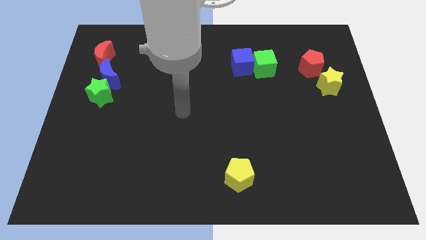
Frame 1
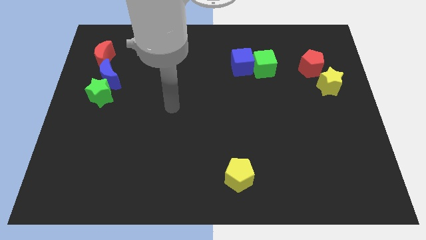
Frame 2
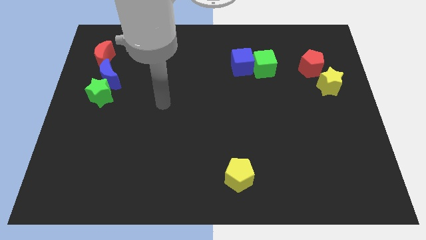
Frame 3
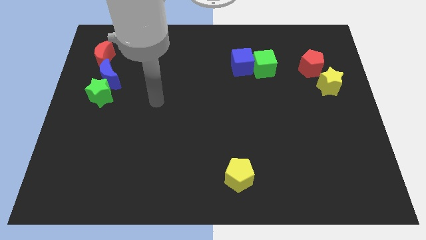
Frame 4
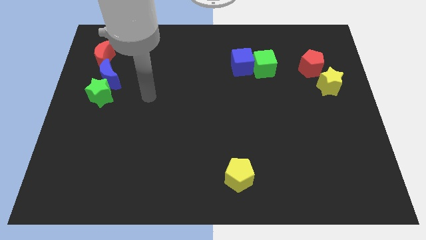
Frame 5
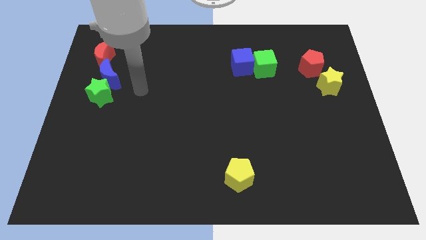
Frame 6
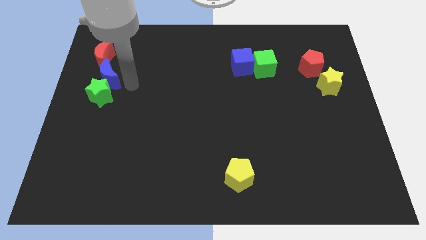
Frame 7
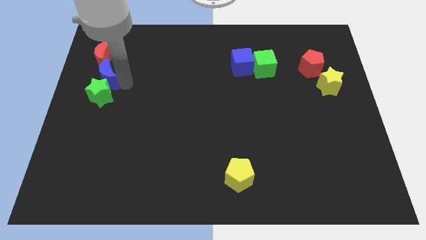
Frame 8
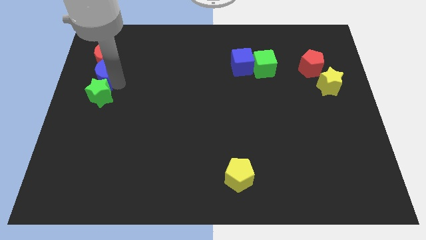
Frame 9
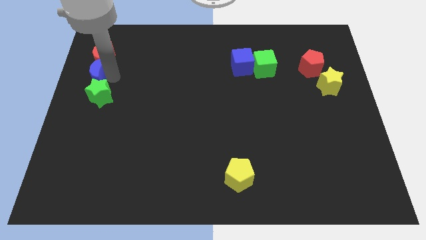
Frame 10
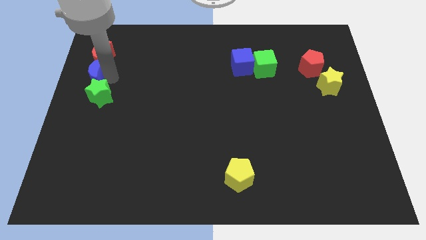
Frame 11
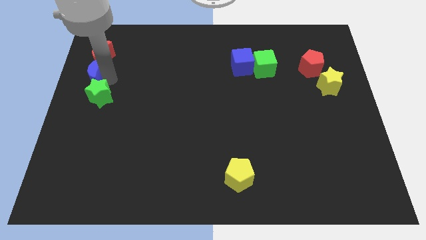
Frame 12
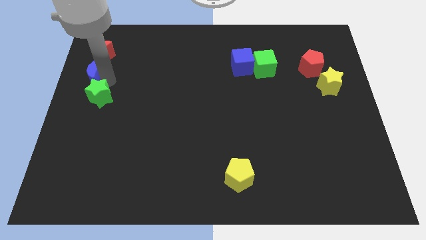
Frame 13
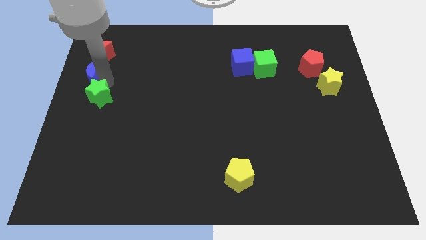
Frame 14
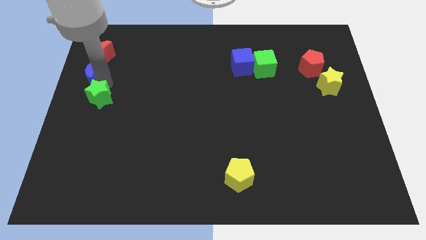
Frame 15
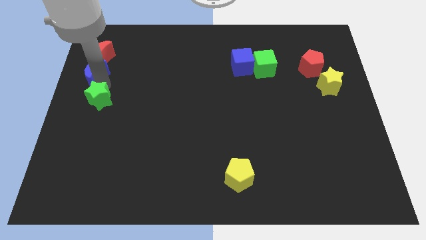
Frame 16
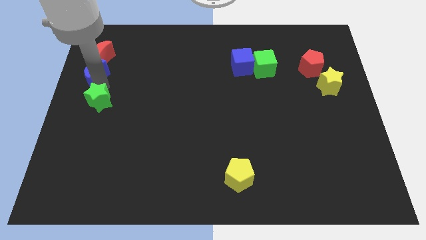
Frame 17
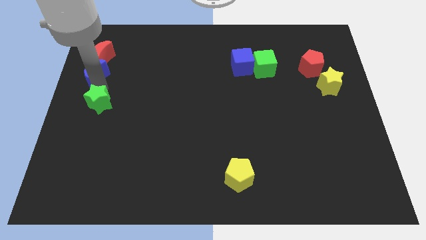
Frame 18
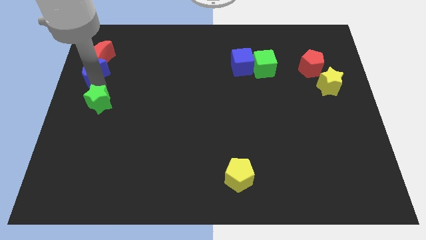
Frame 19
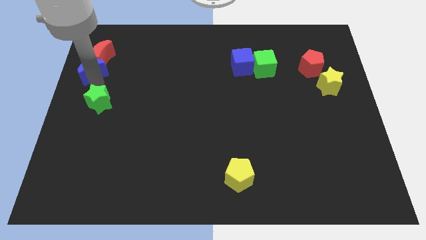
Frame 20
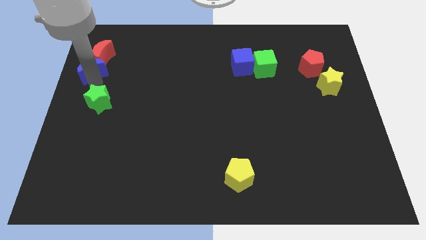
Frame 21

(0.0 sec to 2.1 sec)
pull the green star apart from the blue moon

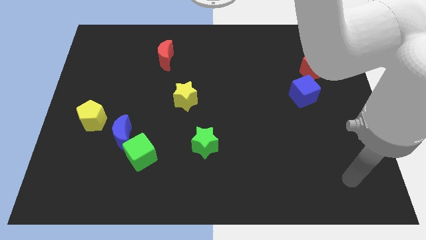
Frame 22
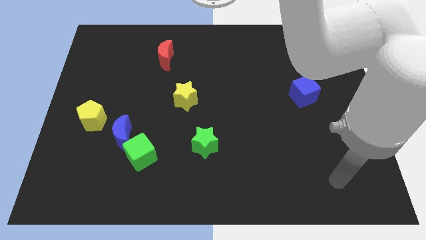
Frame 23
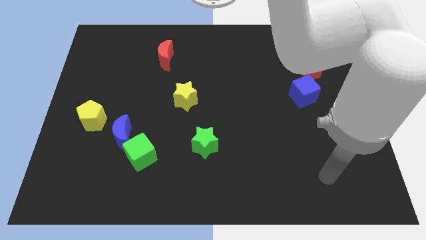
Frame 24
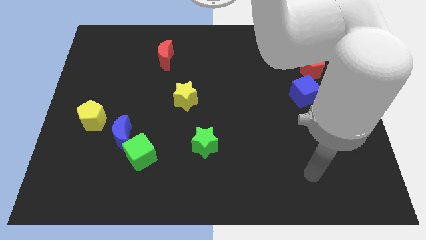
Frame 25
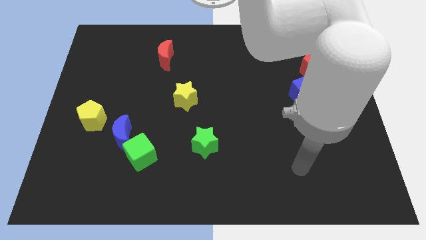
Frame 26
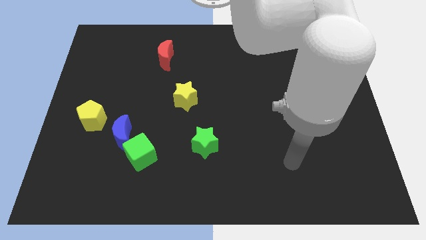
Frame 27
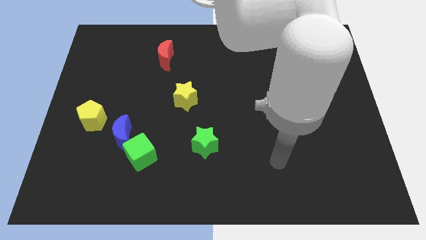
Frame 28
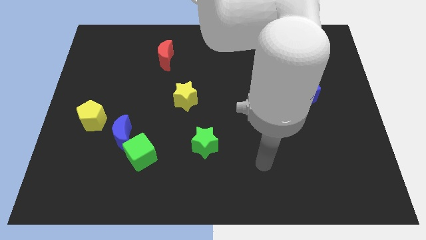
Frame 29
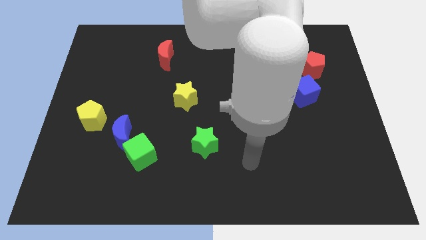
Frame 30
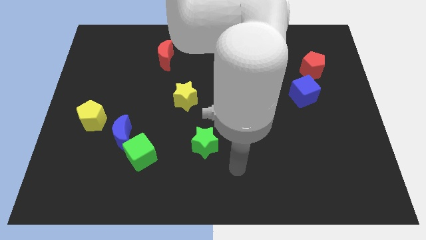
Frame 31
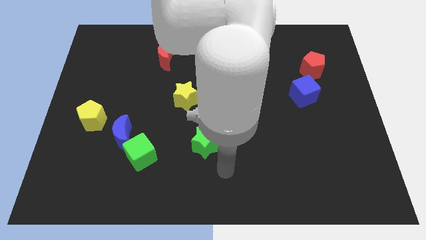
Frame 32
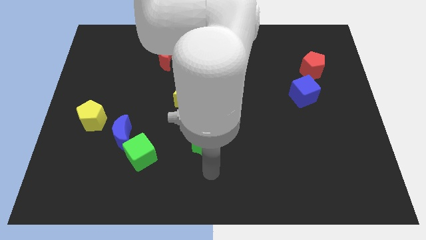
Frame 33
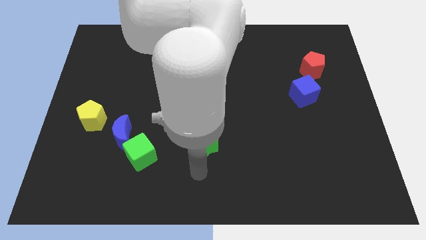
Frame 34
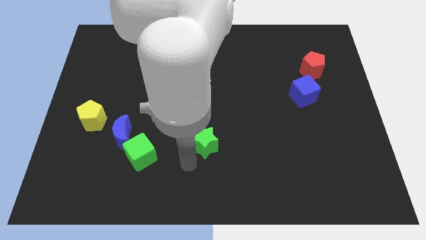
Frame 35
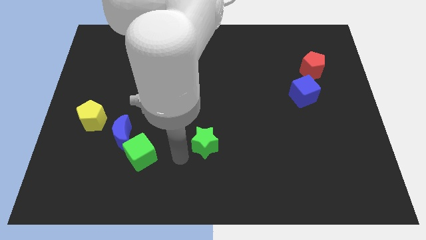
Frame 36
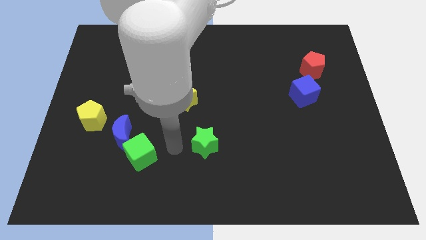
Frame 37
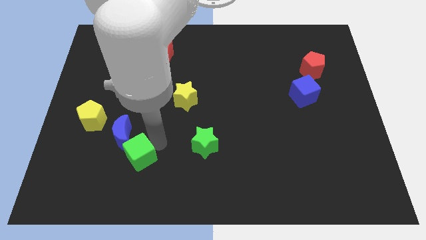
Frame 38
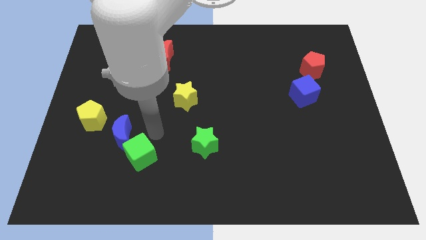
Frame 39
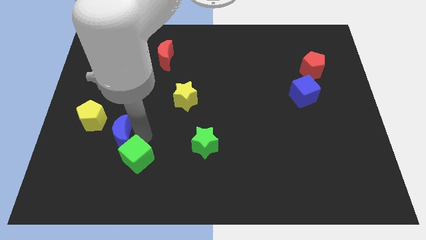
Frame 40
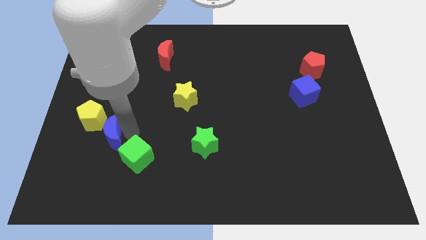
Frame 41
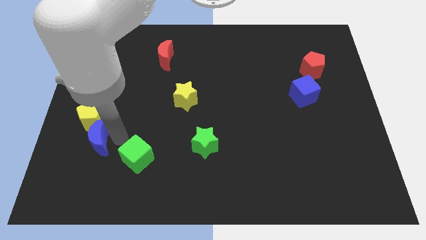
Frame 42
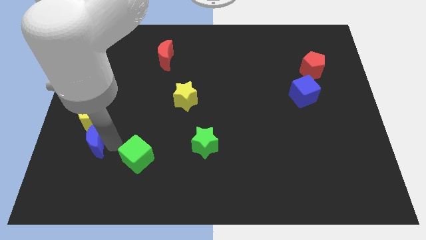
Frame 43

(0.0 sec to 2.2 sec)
separate the green cube from the blue moon

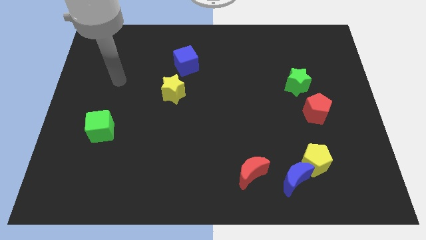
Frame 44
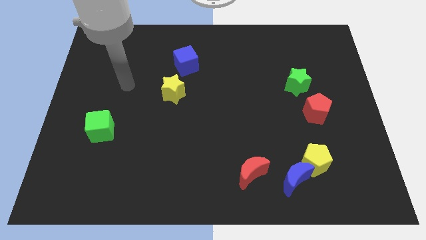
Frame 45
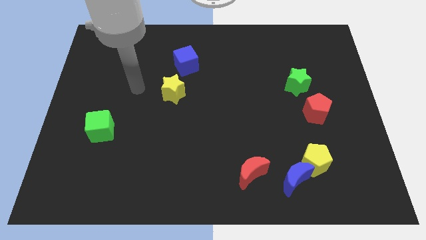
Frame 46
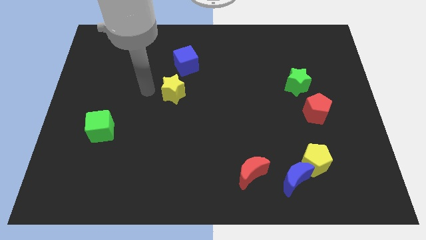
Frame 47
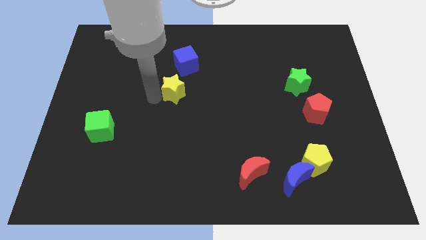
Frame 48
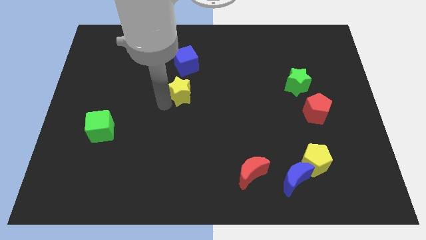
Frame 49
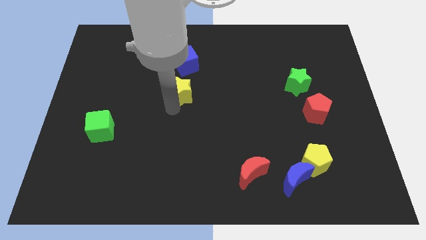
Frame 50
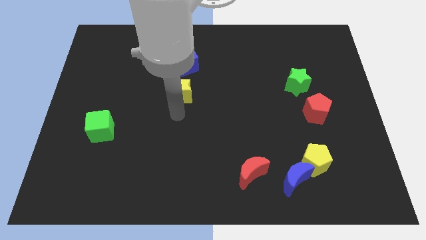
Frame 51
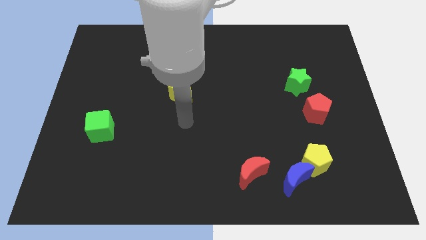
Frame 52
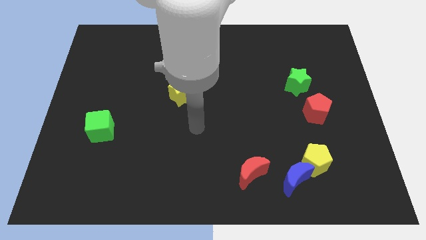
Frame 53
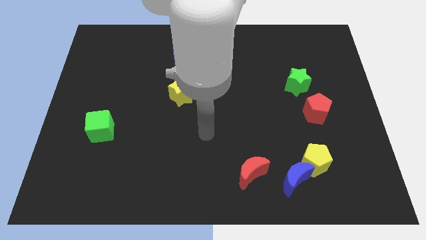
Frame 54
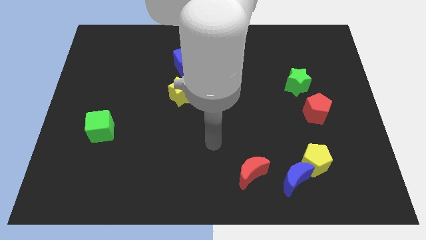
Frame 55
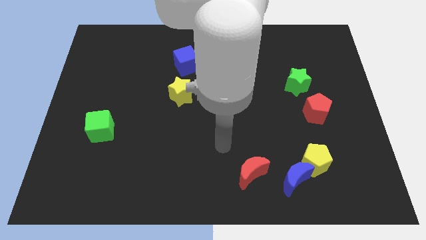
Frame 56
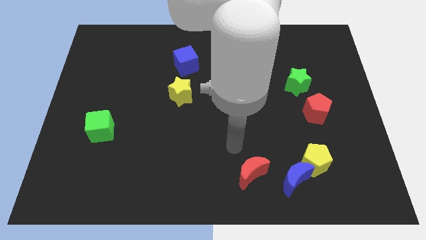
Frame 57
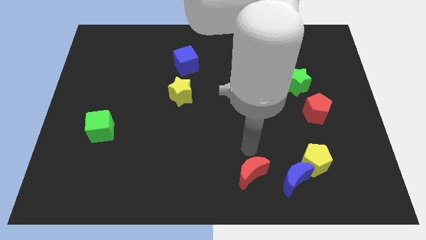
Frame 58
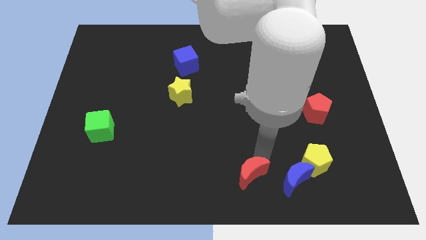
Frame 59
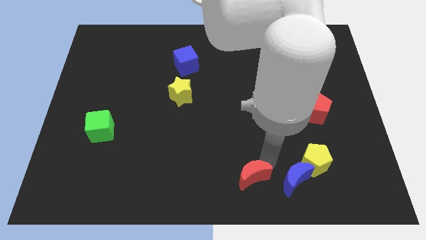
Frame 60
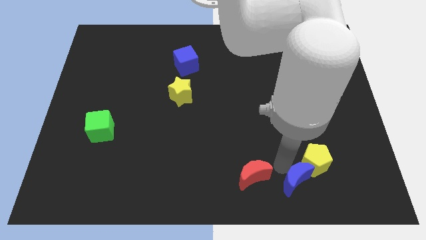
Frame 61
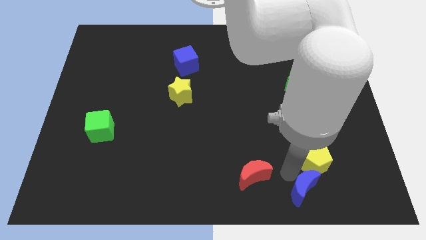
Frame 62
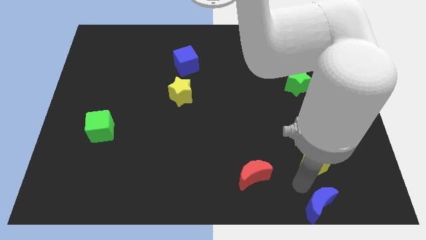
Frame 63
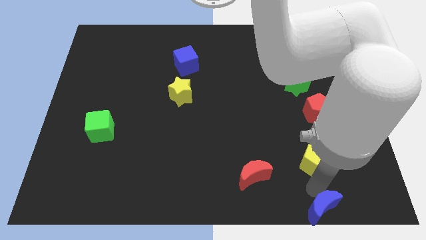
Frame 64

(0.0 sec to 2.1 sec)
separate the yellow pentagon from the blue moon

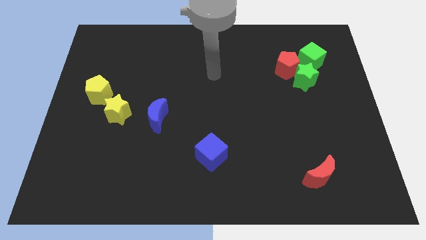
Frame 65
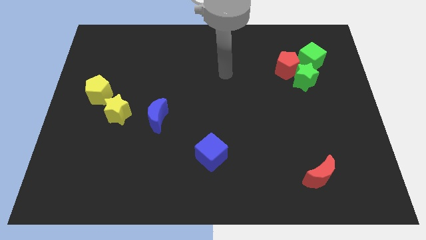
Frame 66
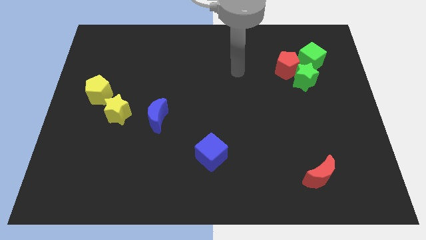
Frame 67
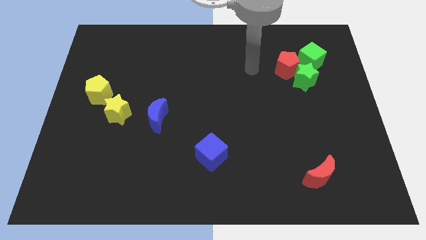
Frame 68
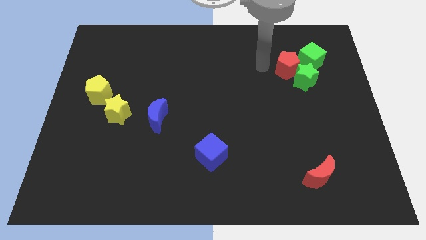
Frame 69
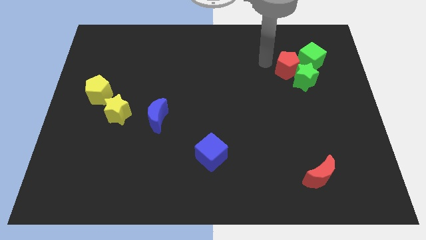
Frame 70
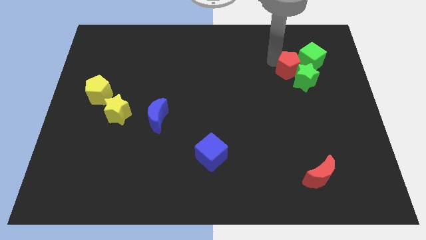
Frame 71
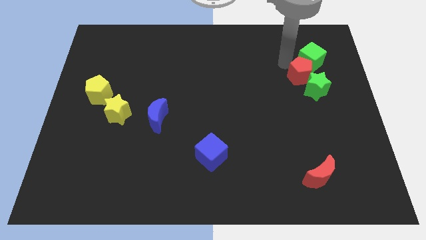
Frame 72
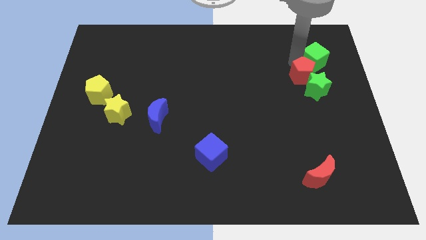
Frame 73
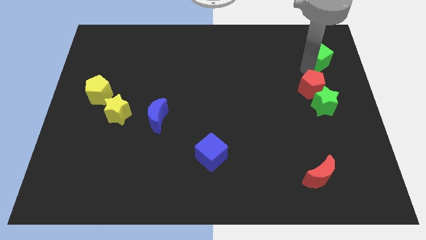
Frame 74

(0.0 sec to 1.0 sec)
move the green star away from the red pentagon and green cube

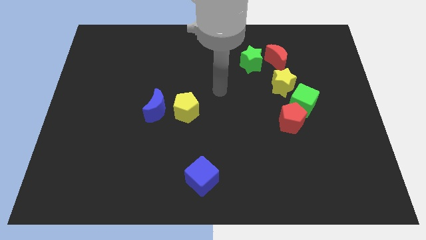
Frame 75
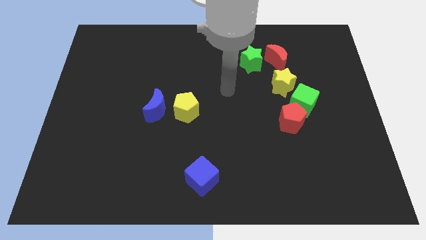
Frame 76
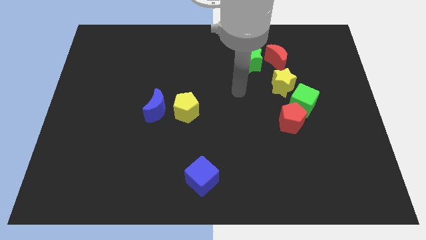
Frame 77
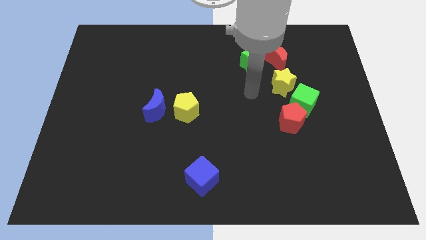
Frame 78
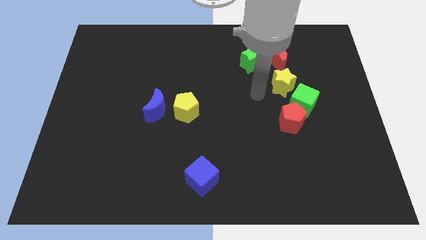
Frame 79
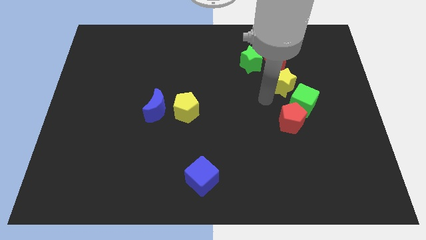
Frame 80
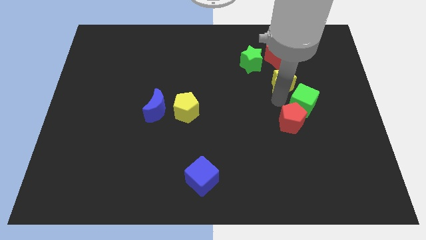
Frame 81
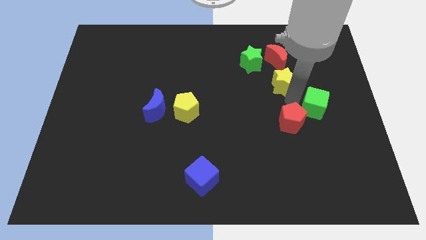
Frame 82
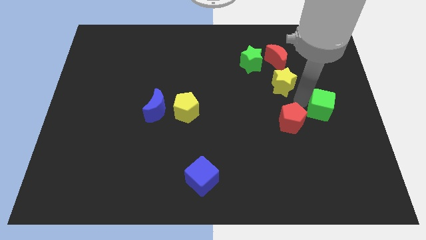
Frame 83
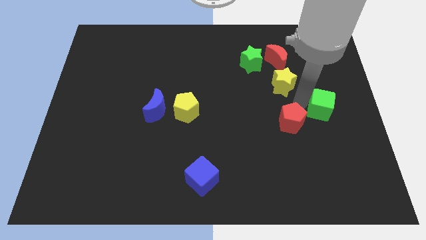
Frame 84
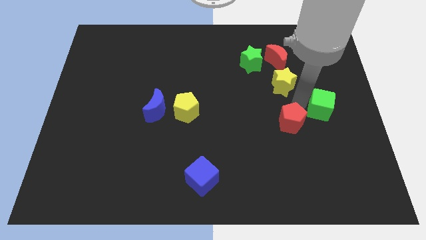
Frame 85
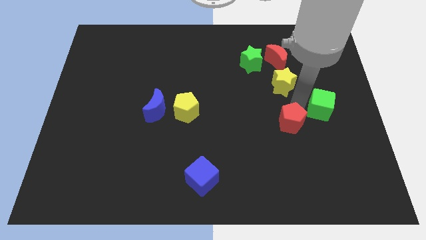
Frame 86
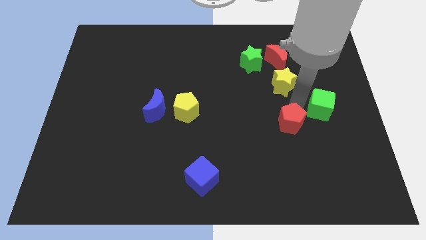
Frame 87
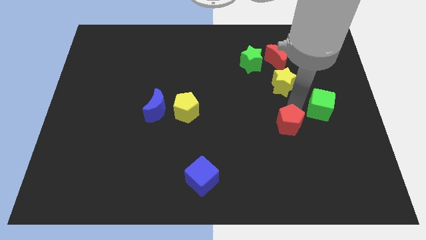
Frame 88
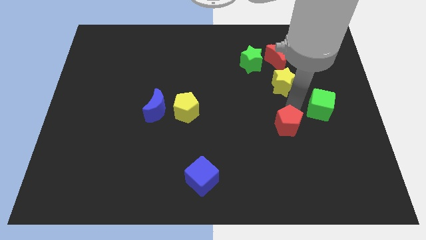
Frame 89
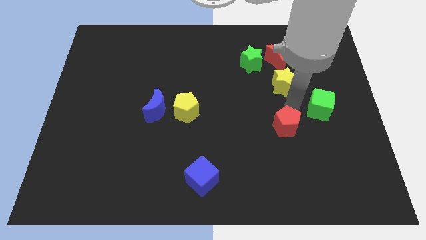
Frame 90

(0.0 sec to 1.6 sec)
move the red pentagon away from the green cube

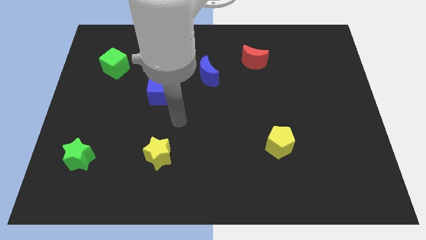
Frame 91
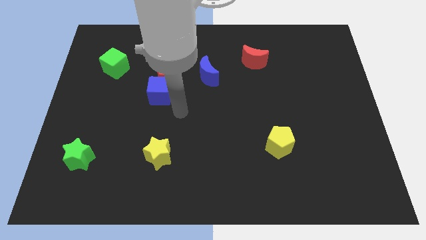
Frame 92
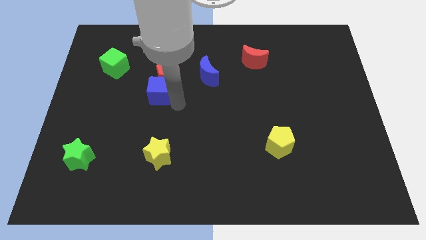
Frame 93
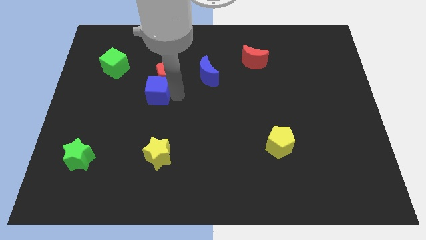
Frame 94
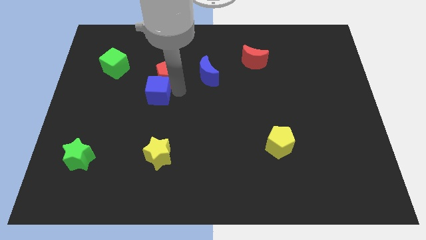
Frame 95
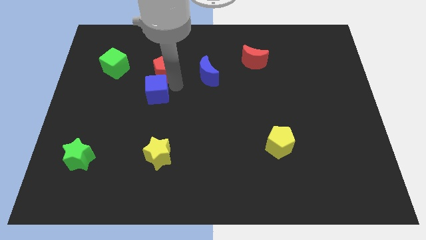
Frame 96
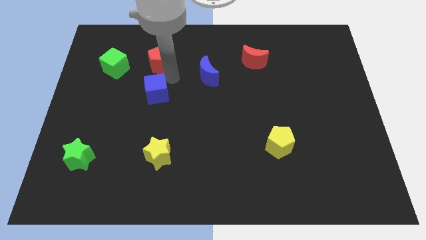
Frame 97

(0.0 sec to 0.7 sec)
move the blue cube away from the red pentagon
